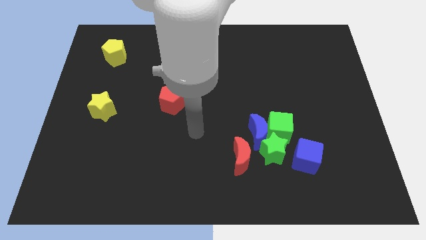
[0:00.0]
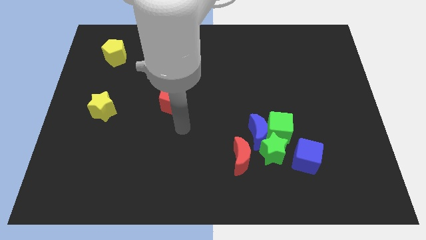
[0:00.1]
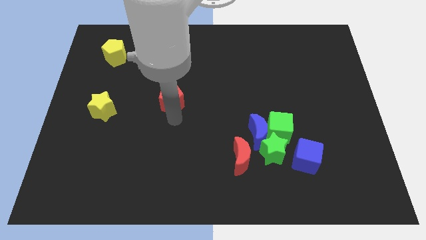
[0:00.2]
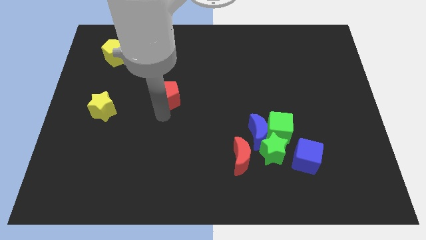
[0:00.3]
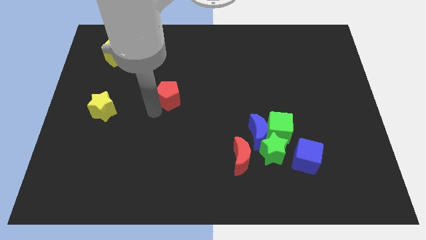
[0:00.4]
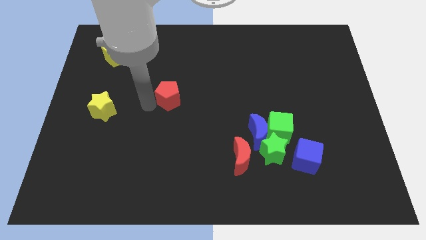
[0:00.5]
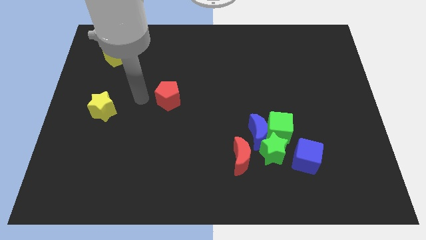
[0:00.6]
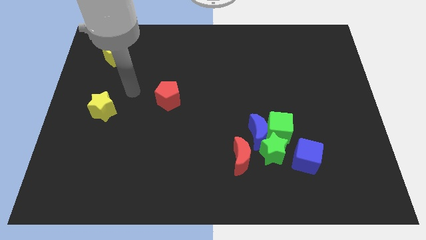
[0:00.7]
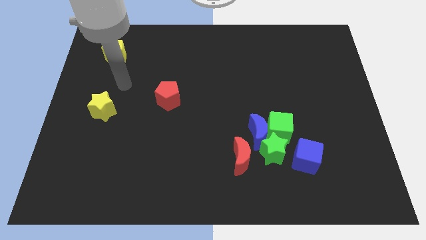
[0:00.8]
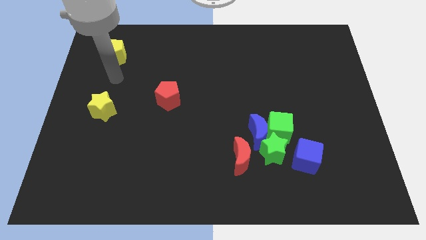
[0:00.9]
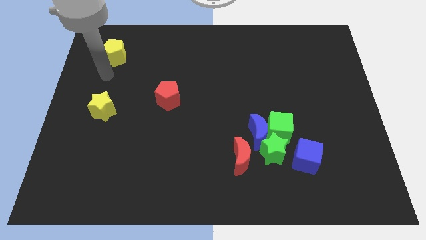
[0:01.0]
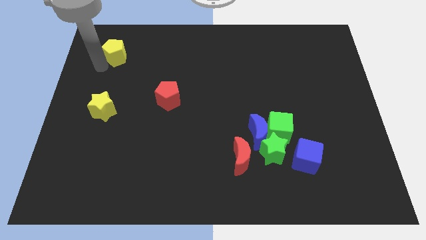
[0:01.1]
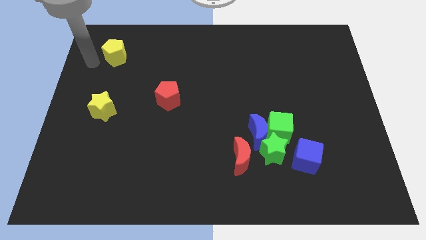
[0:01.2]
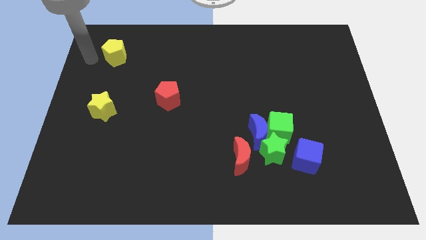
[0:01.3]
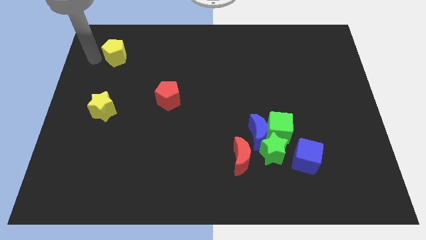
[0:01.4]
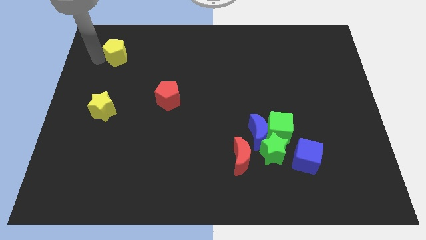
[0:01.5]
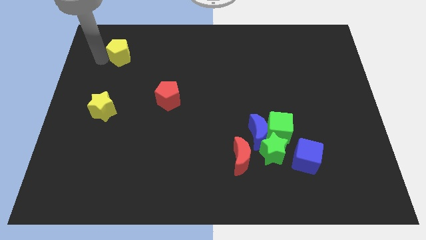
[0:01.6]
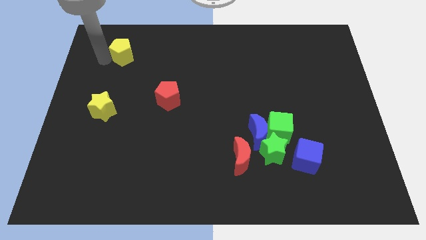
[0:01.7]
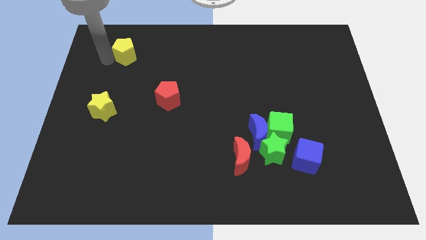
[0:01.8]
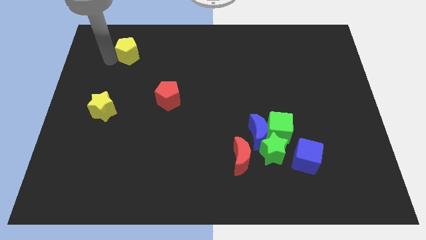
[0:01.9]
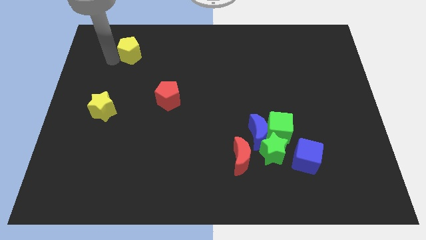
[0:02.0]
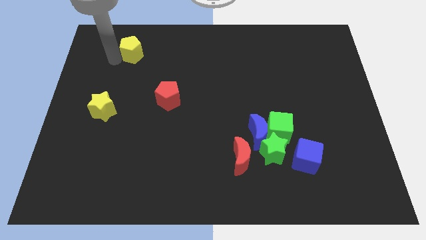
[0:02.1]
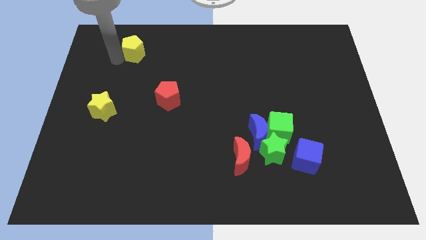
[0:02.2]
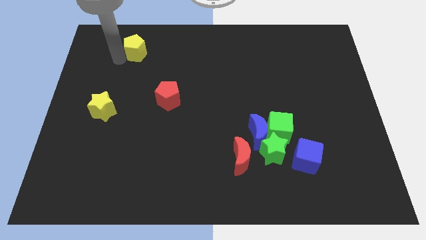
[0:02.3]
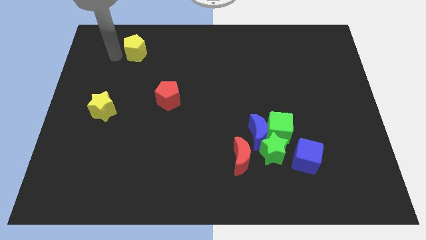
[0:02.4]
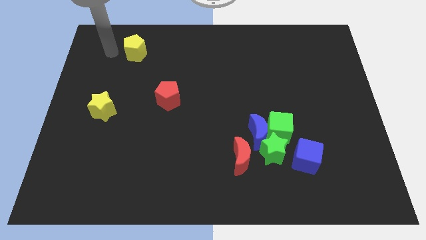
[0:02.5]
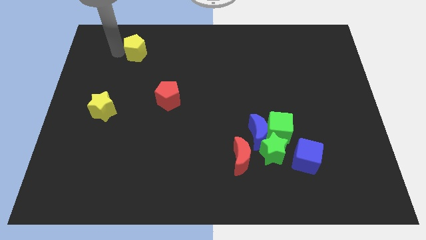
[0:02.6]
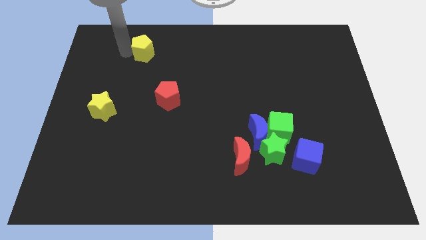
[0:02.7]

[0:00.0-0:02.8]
move the yellow pentagon a little bit right

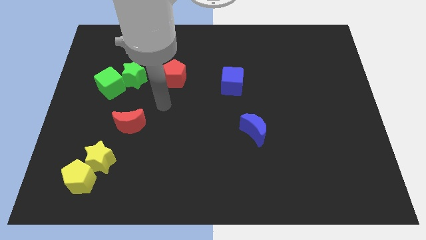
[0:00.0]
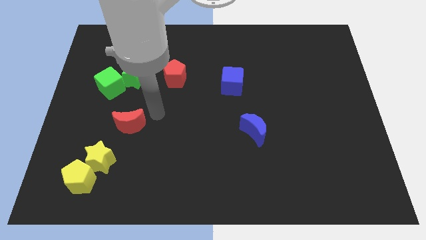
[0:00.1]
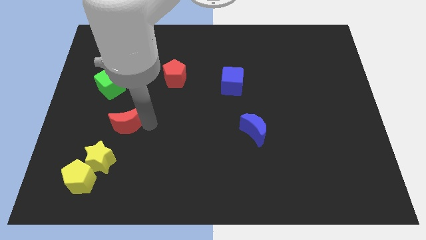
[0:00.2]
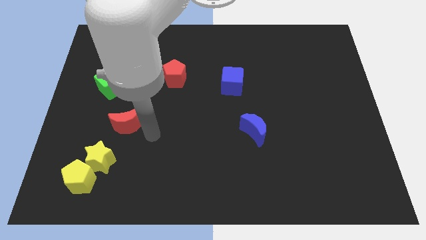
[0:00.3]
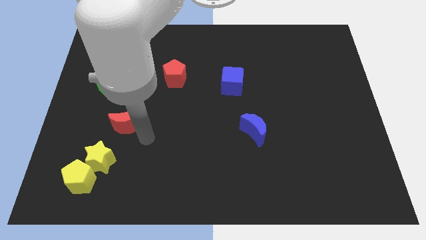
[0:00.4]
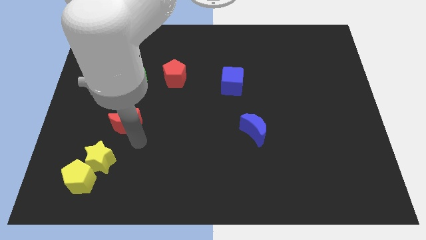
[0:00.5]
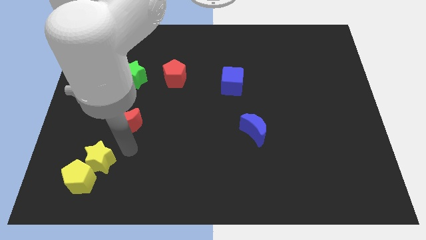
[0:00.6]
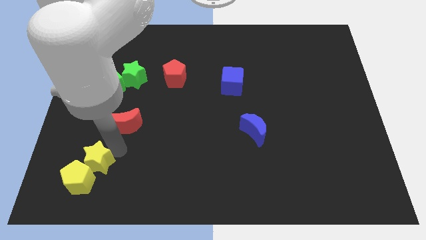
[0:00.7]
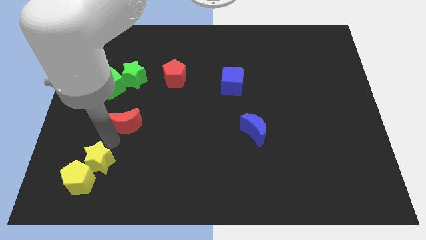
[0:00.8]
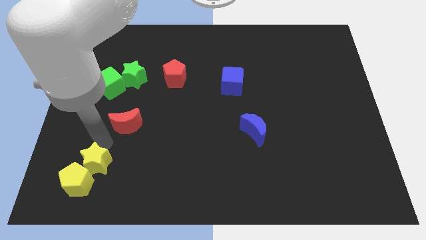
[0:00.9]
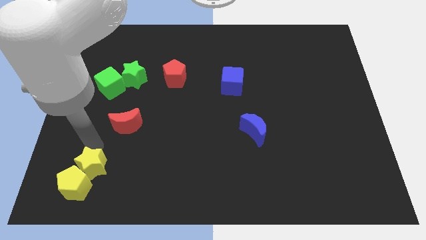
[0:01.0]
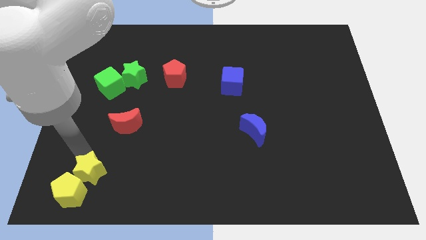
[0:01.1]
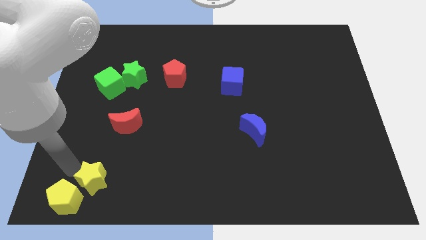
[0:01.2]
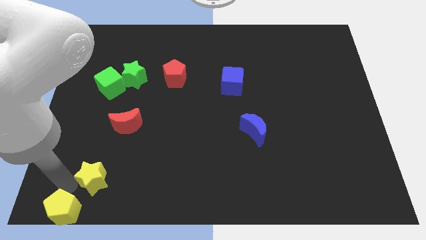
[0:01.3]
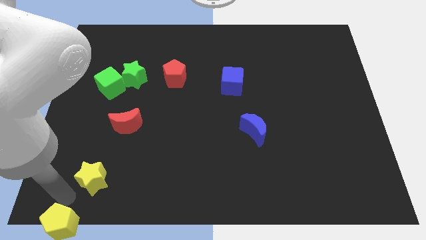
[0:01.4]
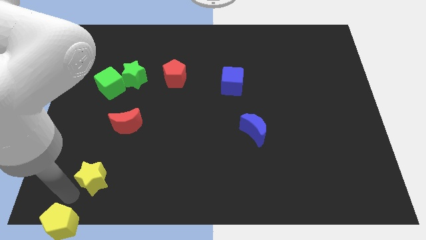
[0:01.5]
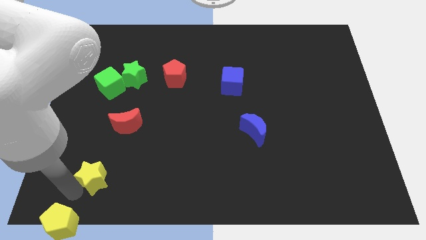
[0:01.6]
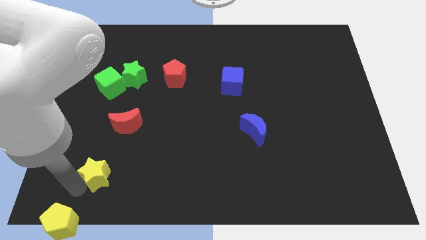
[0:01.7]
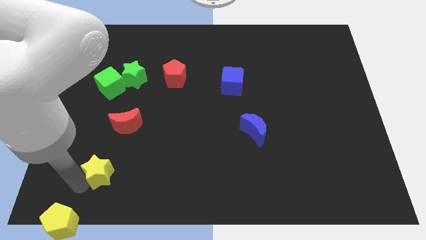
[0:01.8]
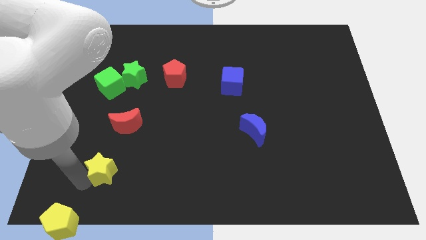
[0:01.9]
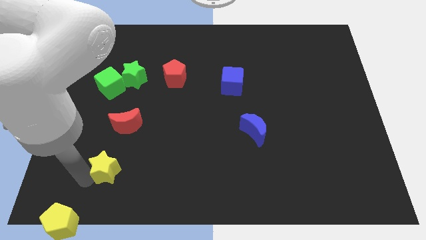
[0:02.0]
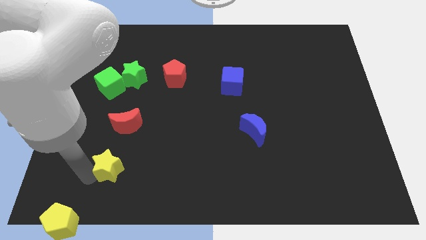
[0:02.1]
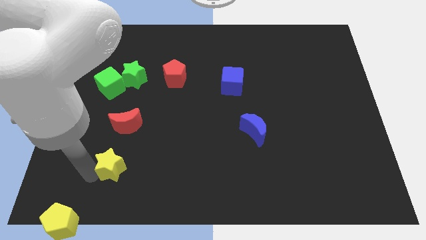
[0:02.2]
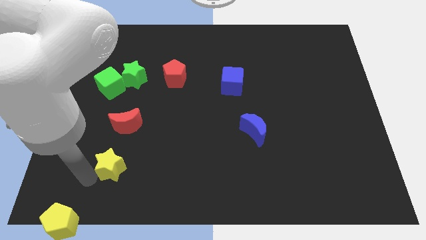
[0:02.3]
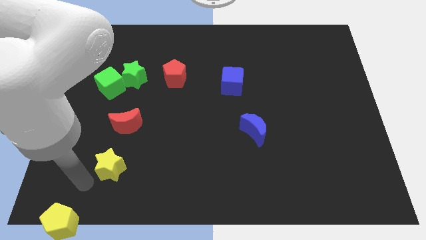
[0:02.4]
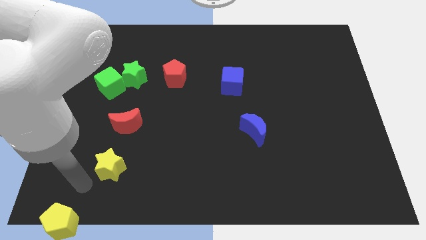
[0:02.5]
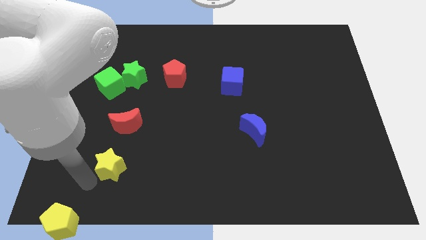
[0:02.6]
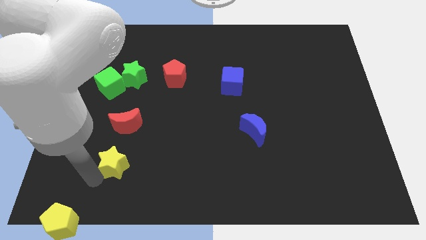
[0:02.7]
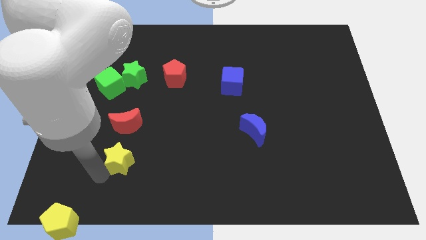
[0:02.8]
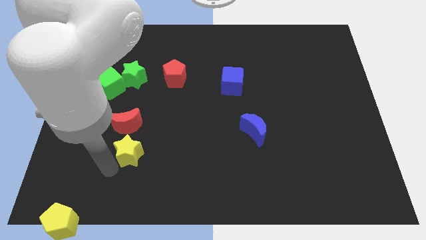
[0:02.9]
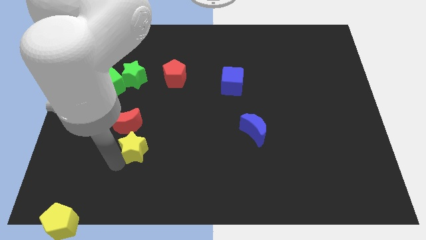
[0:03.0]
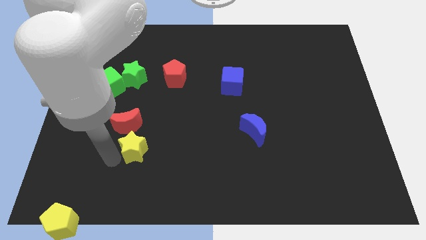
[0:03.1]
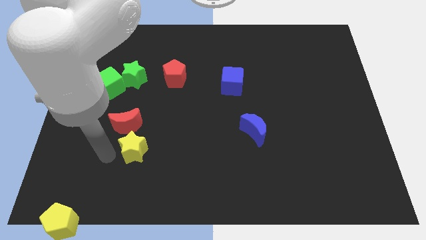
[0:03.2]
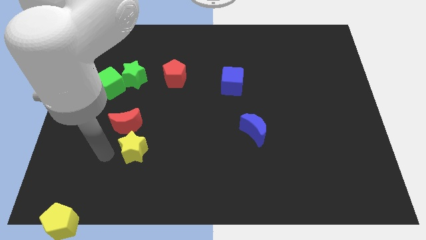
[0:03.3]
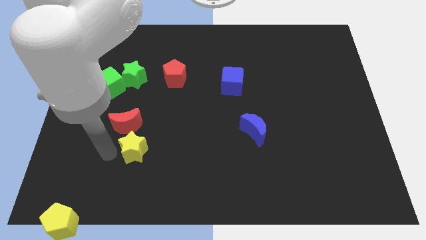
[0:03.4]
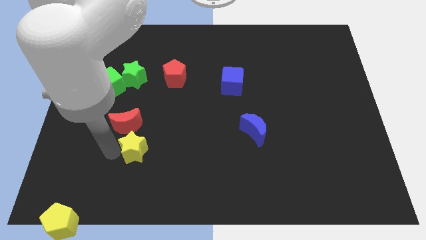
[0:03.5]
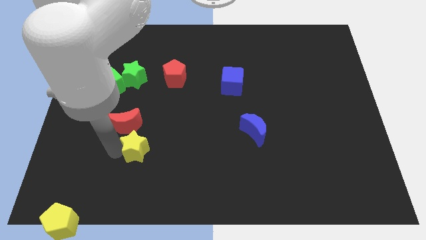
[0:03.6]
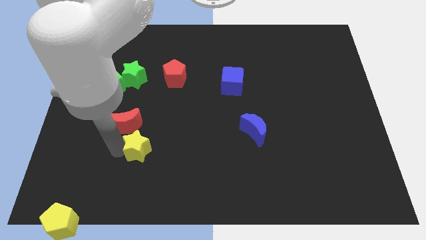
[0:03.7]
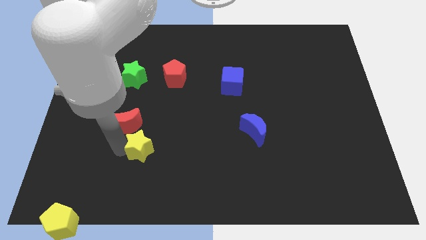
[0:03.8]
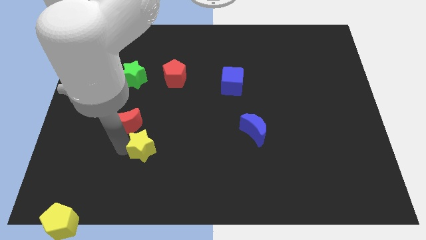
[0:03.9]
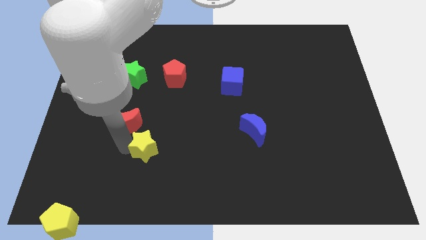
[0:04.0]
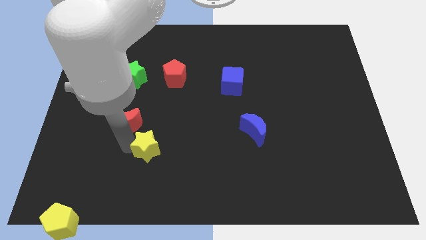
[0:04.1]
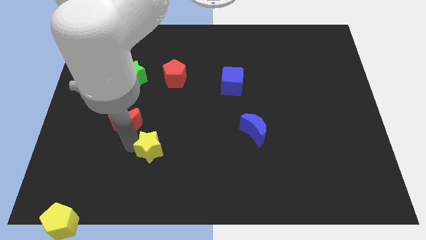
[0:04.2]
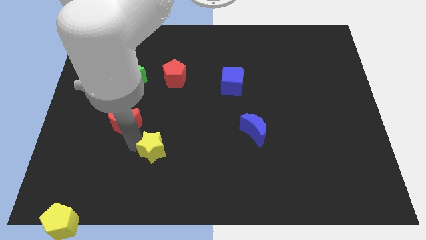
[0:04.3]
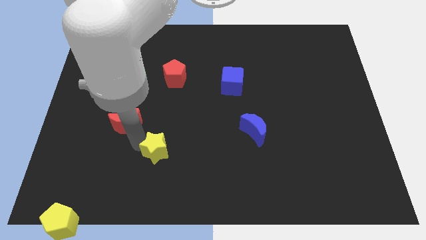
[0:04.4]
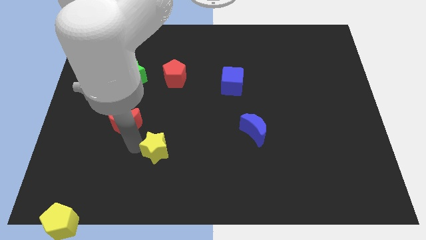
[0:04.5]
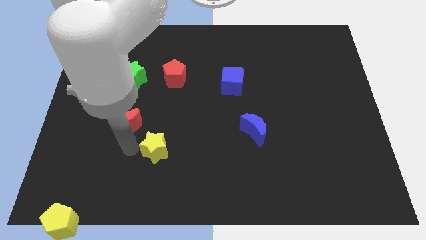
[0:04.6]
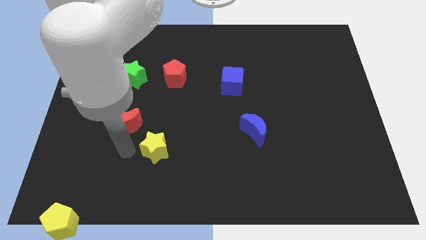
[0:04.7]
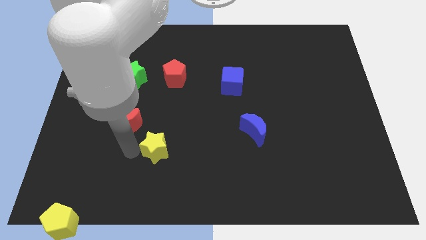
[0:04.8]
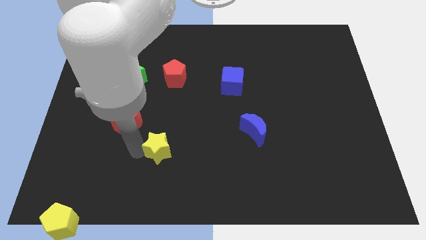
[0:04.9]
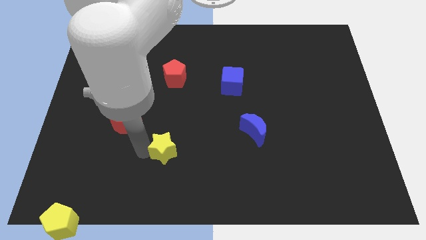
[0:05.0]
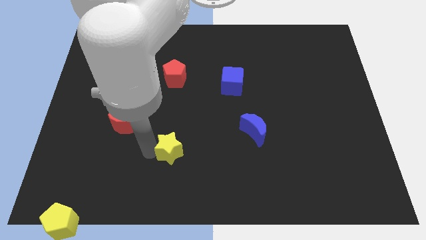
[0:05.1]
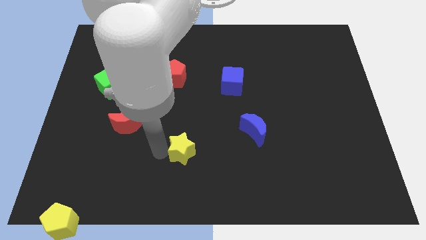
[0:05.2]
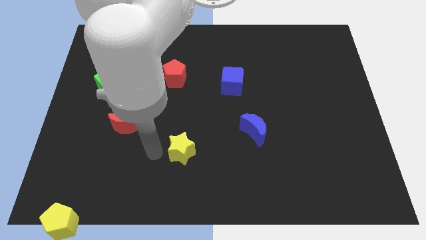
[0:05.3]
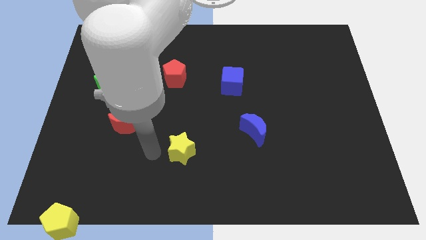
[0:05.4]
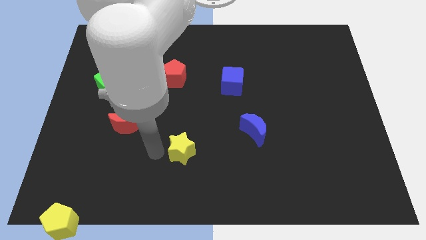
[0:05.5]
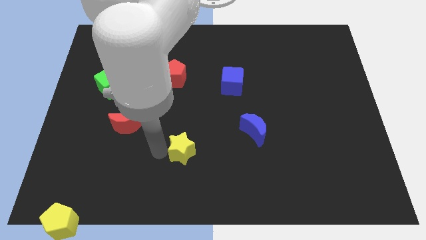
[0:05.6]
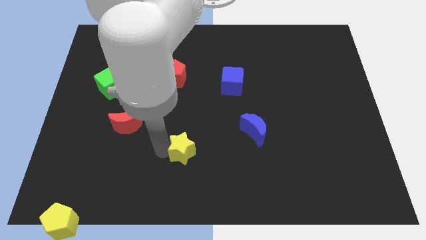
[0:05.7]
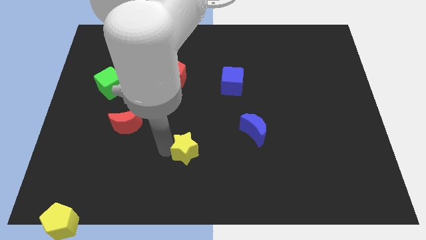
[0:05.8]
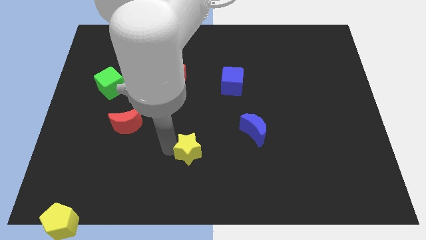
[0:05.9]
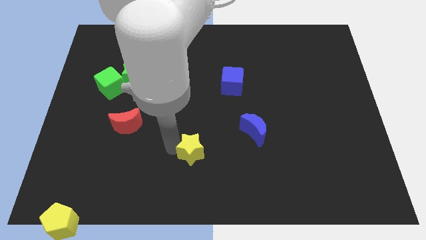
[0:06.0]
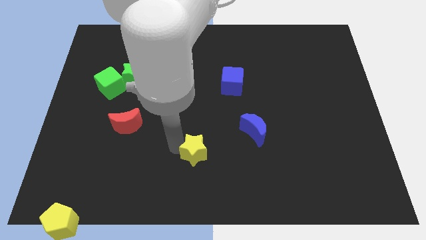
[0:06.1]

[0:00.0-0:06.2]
push the yellow star to the right
